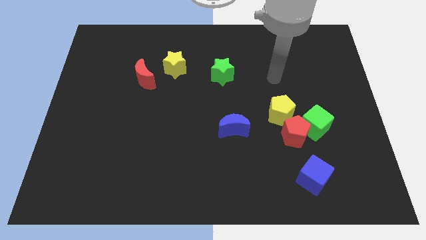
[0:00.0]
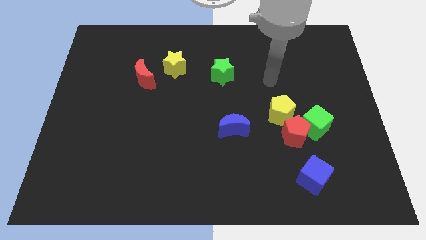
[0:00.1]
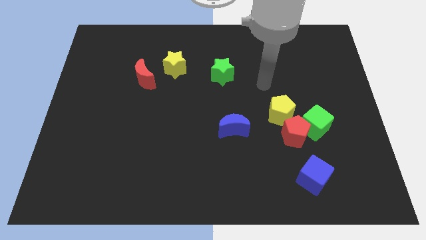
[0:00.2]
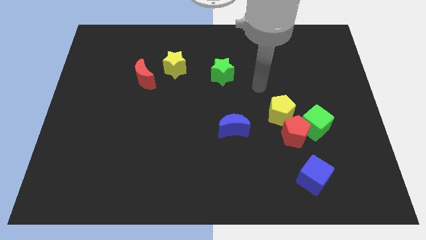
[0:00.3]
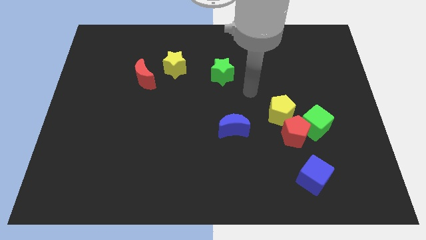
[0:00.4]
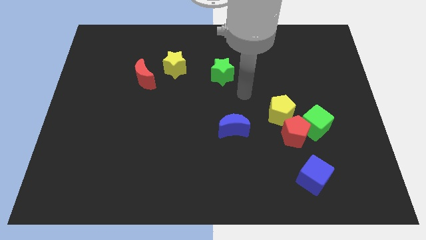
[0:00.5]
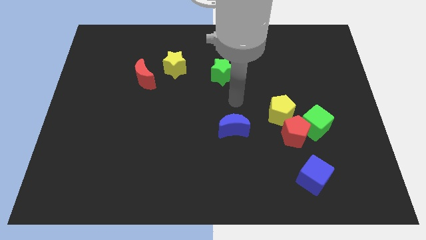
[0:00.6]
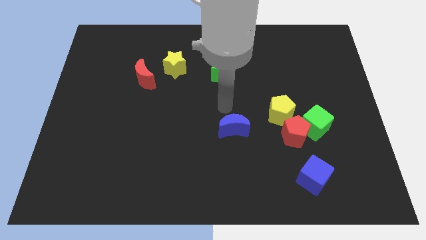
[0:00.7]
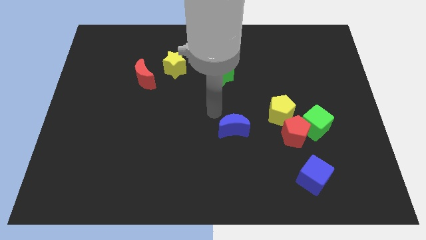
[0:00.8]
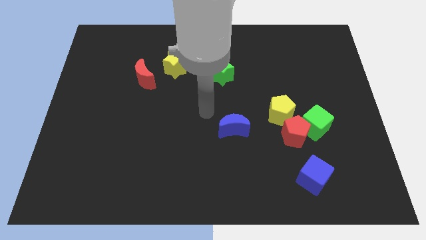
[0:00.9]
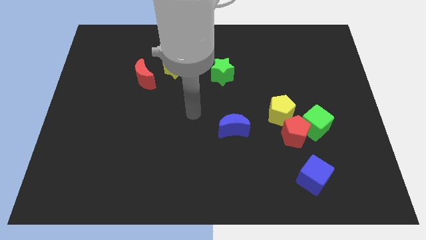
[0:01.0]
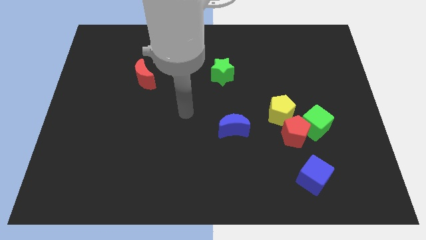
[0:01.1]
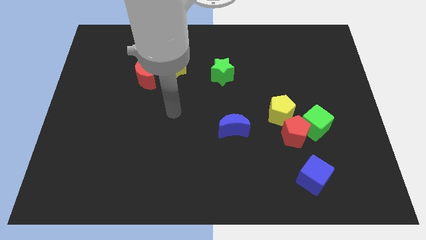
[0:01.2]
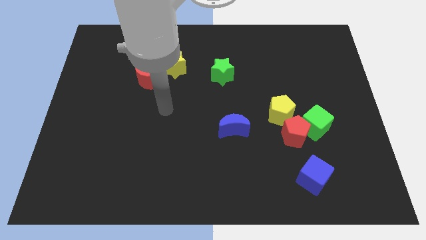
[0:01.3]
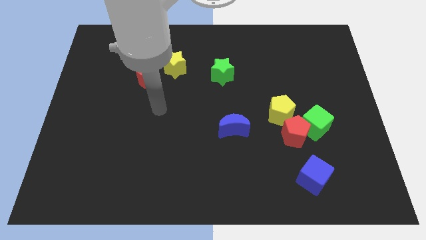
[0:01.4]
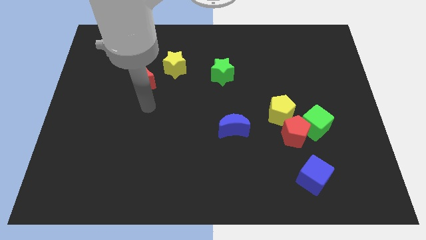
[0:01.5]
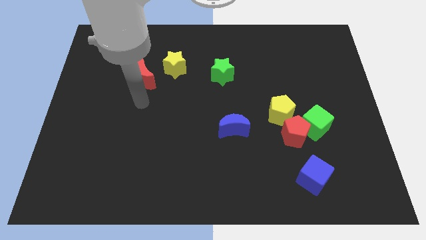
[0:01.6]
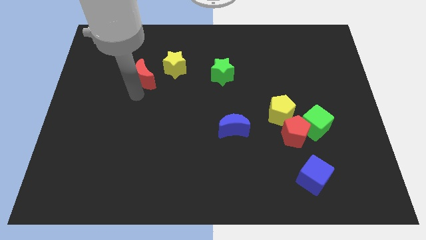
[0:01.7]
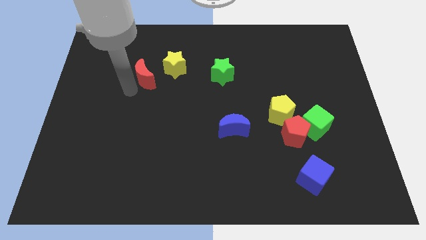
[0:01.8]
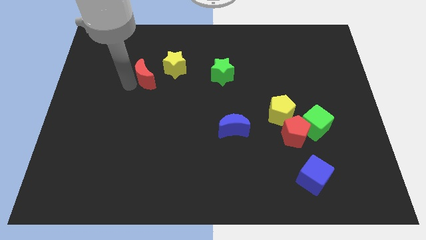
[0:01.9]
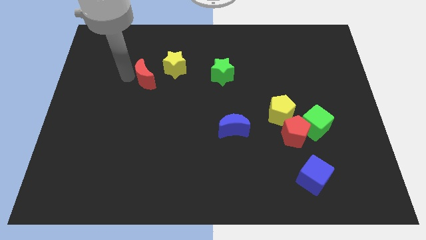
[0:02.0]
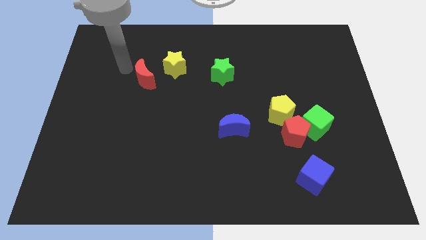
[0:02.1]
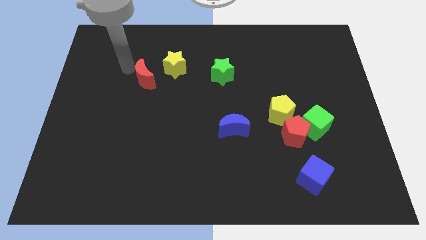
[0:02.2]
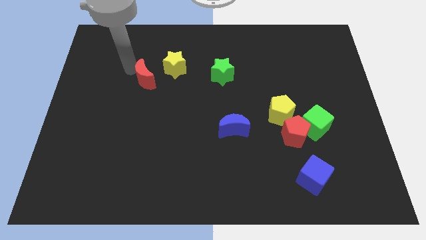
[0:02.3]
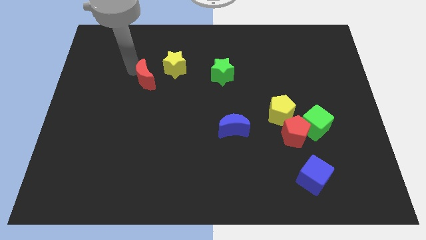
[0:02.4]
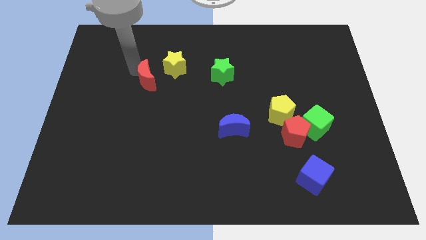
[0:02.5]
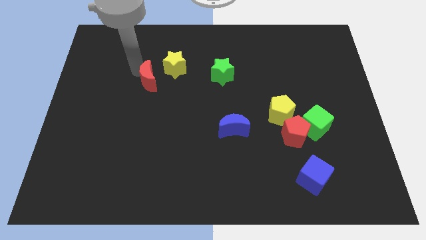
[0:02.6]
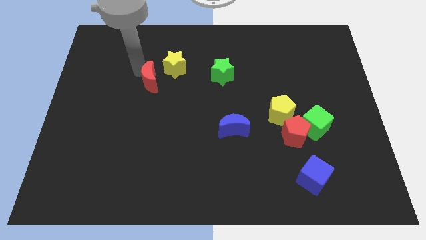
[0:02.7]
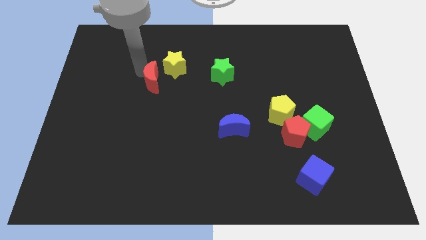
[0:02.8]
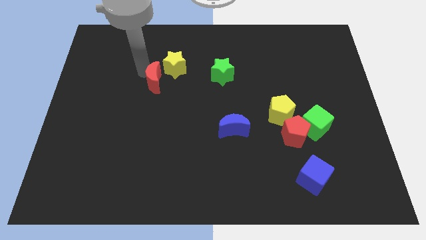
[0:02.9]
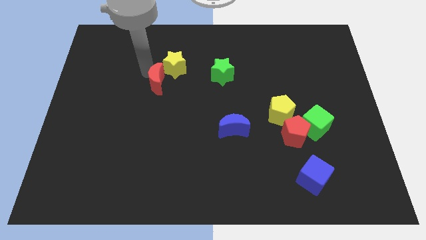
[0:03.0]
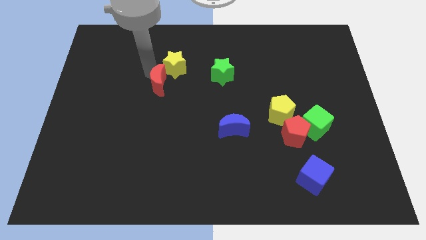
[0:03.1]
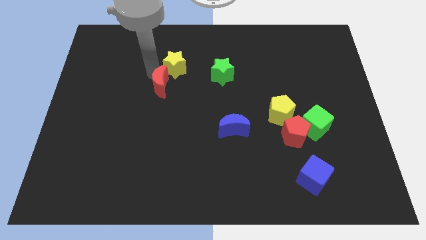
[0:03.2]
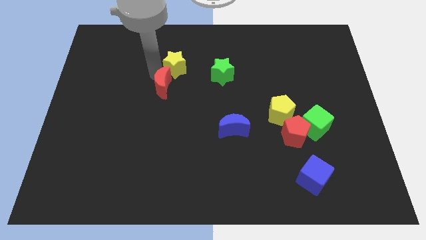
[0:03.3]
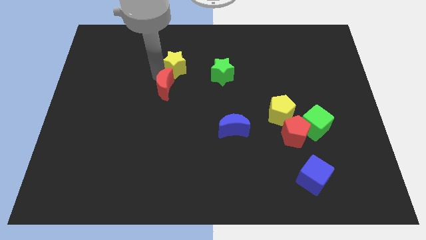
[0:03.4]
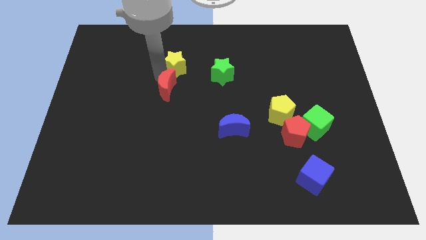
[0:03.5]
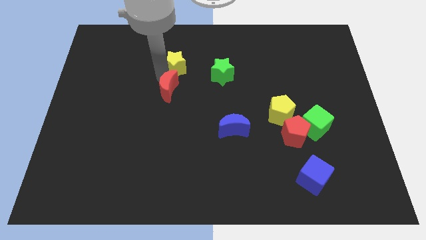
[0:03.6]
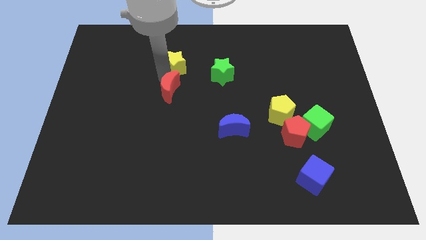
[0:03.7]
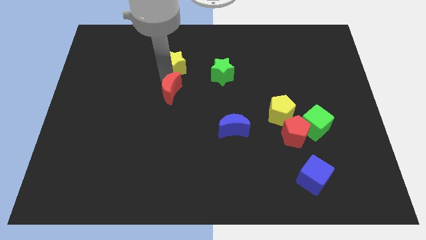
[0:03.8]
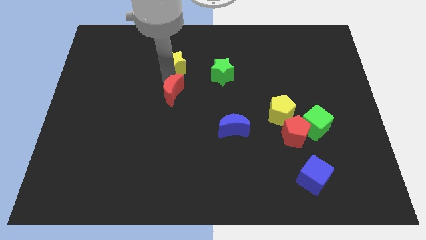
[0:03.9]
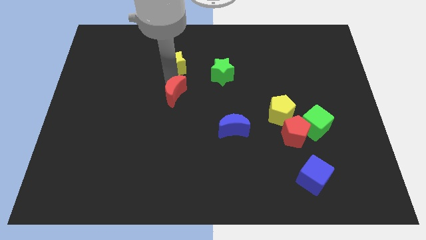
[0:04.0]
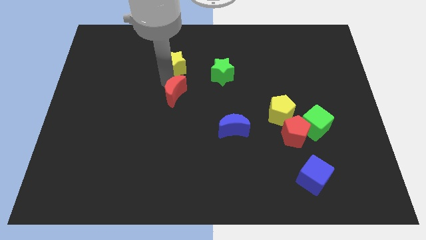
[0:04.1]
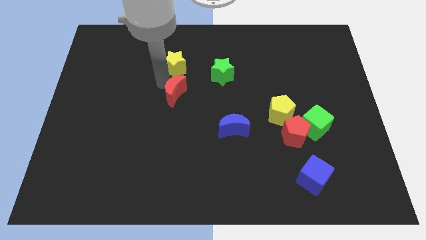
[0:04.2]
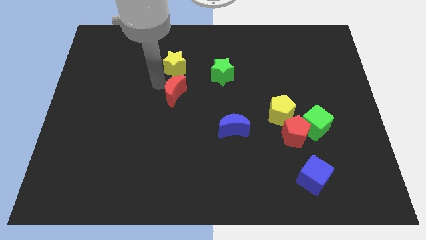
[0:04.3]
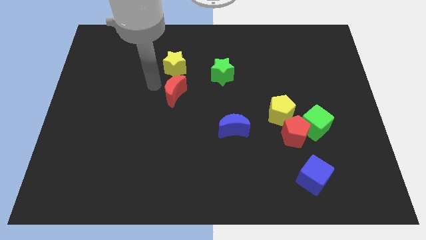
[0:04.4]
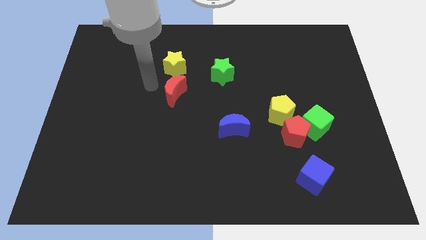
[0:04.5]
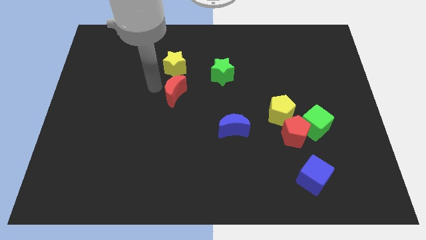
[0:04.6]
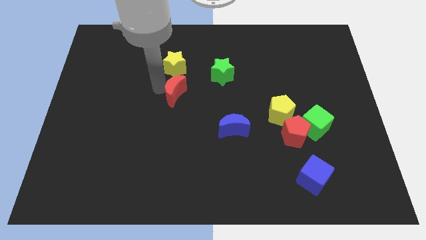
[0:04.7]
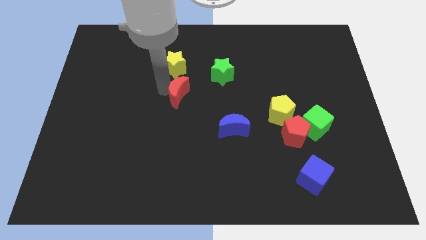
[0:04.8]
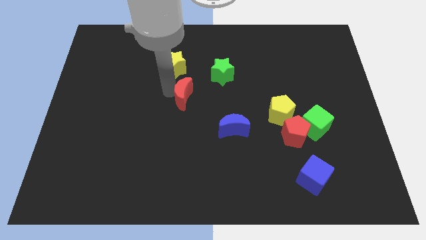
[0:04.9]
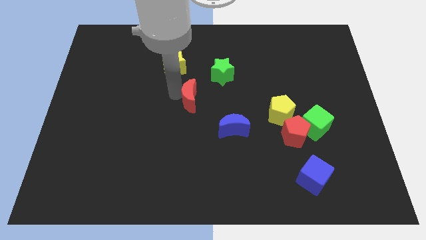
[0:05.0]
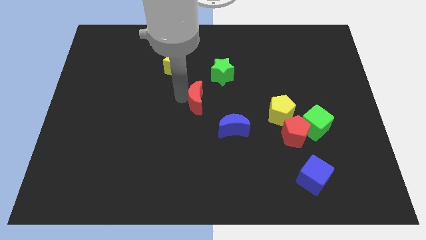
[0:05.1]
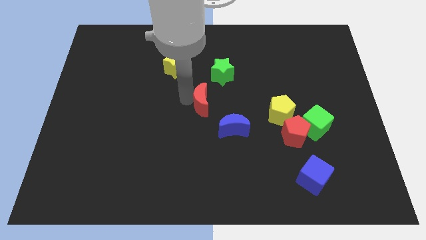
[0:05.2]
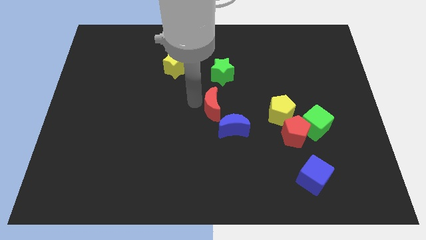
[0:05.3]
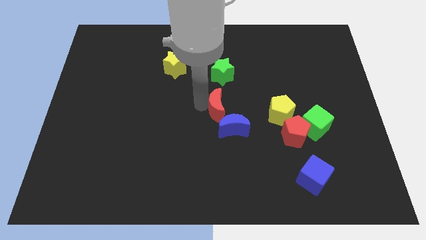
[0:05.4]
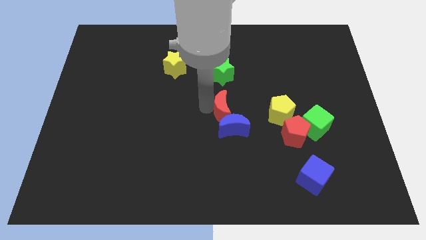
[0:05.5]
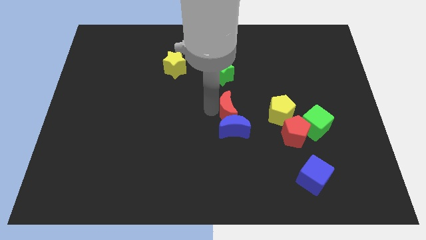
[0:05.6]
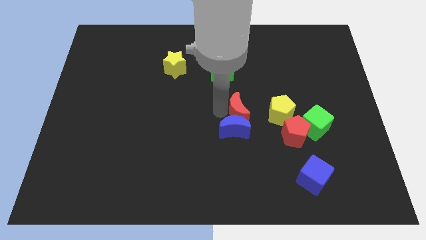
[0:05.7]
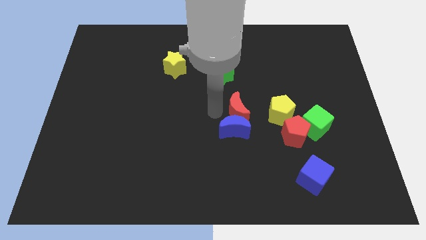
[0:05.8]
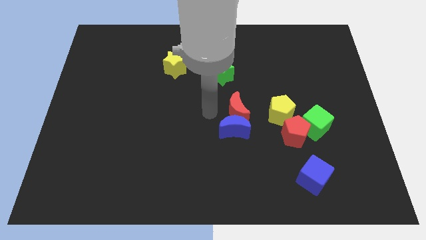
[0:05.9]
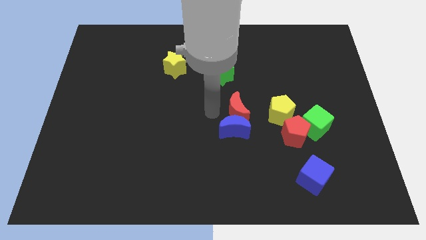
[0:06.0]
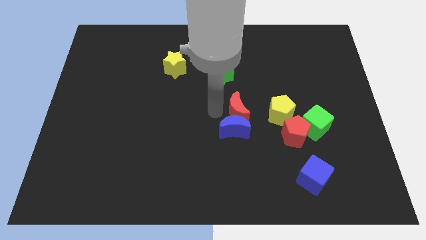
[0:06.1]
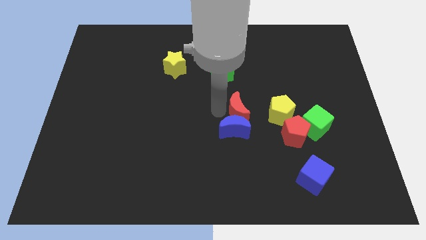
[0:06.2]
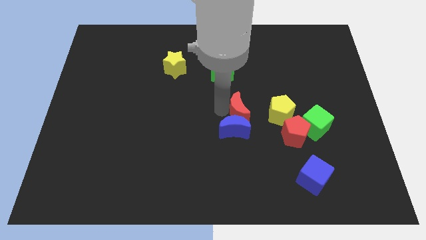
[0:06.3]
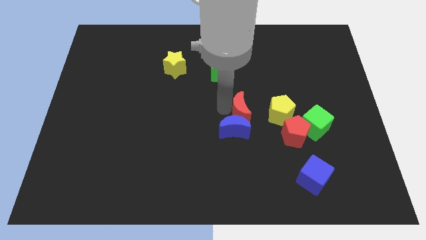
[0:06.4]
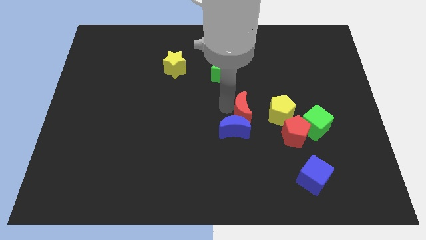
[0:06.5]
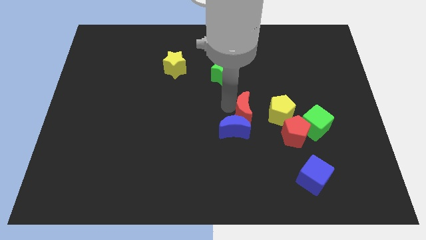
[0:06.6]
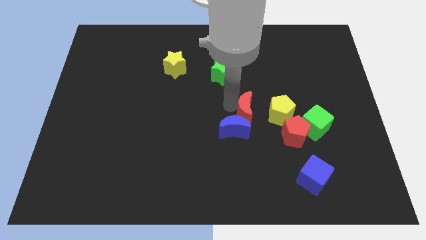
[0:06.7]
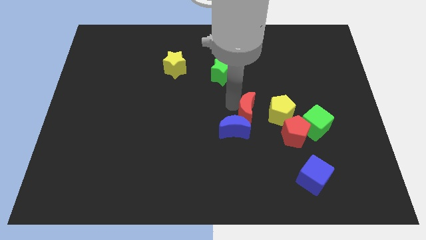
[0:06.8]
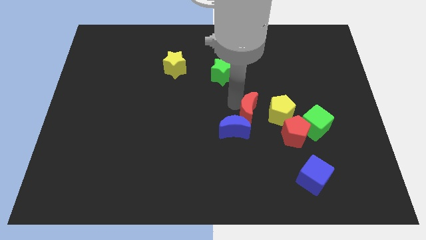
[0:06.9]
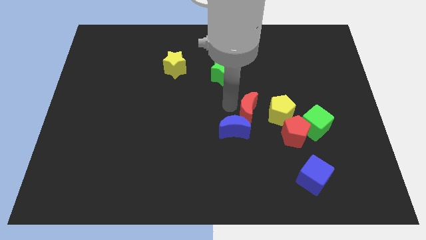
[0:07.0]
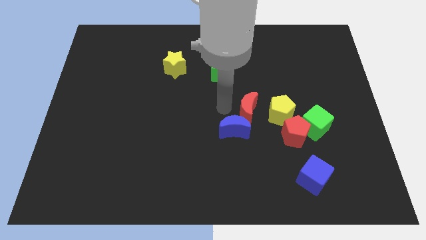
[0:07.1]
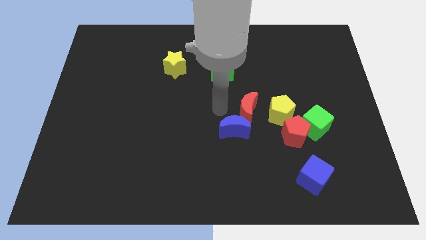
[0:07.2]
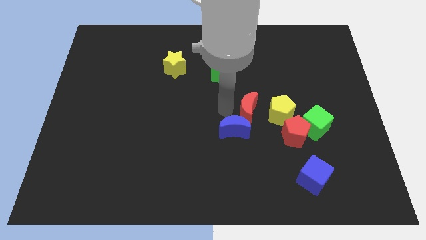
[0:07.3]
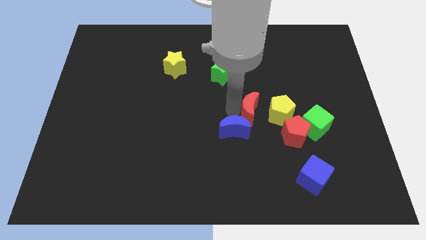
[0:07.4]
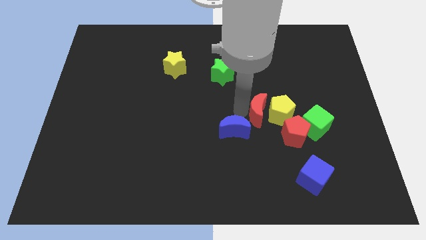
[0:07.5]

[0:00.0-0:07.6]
put the red moon towards the yellow pentagon
